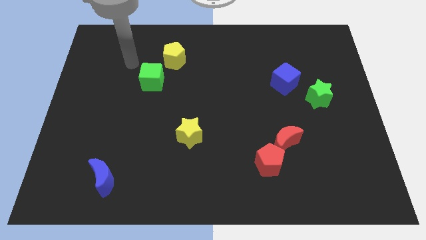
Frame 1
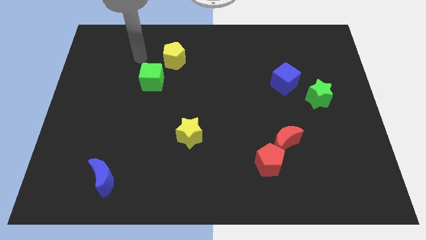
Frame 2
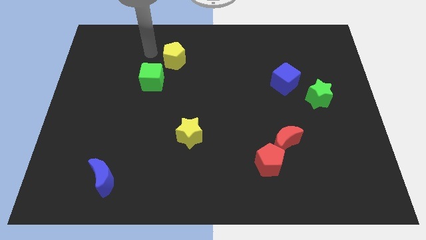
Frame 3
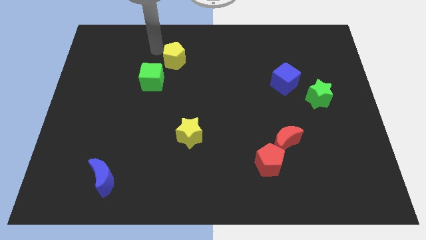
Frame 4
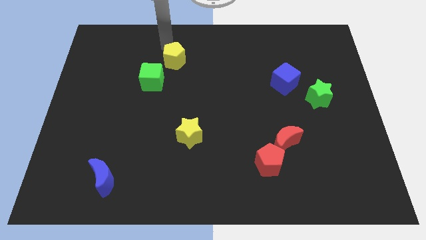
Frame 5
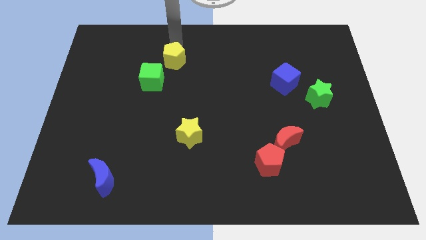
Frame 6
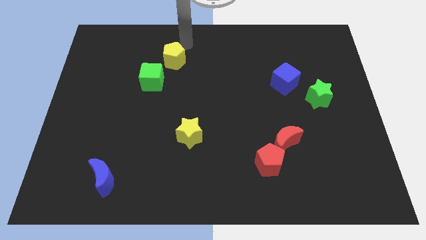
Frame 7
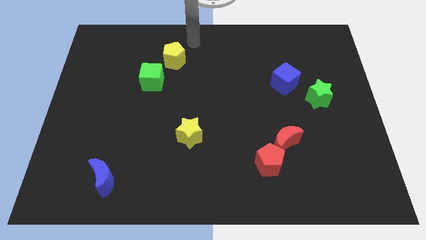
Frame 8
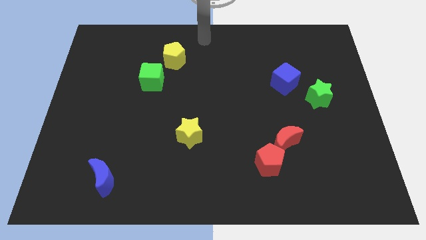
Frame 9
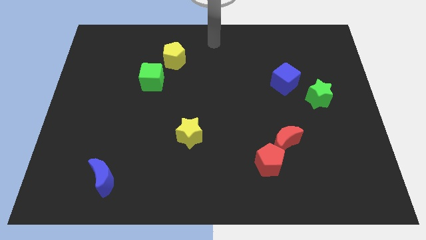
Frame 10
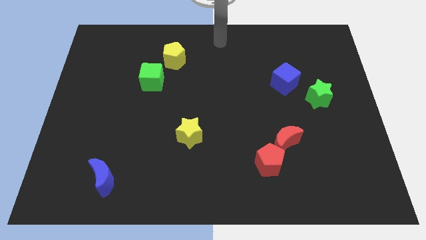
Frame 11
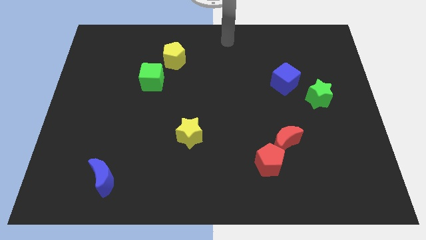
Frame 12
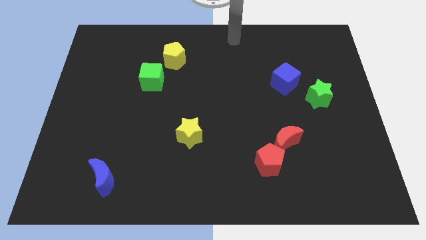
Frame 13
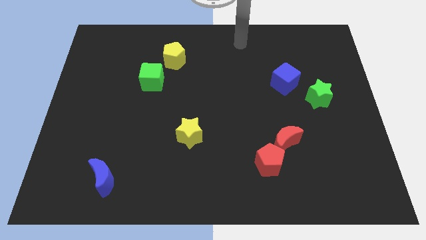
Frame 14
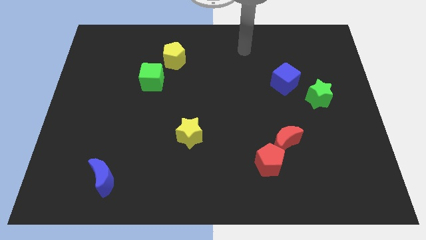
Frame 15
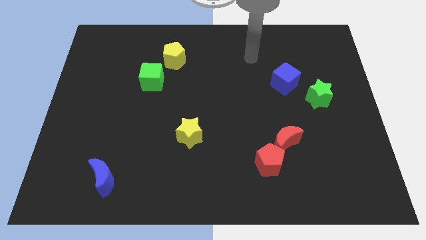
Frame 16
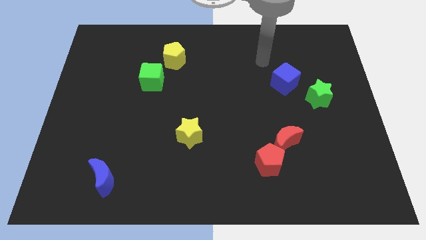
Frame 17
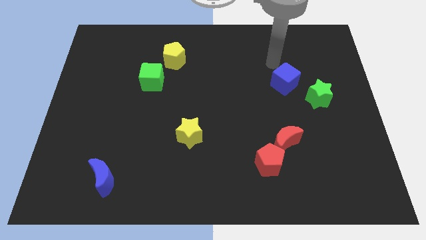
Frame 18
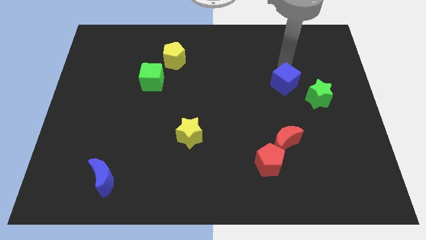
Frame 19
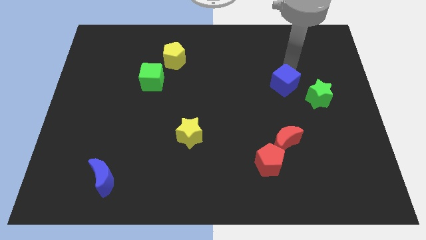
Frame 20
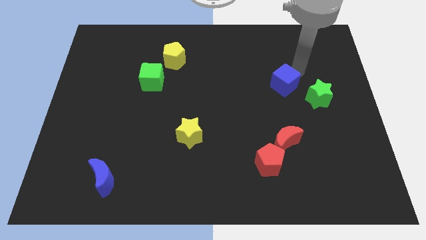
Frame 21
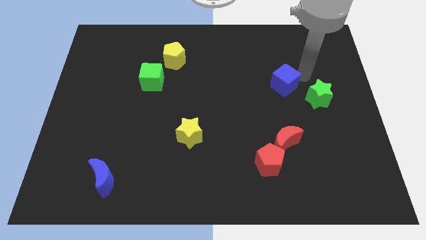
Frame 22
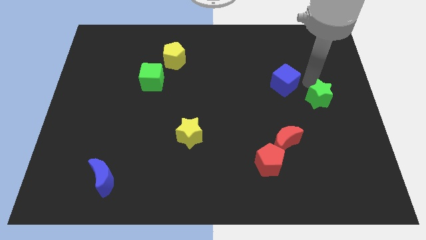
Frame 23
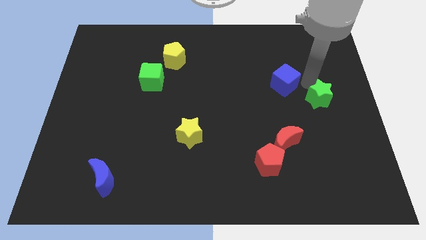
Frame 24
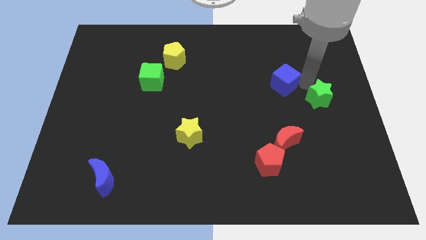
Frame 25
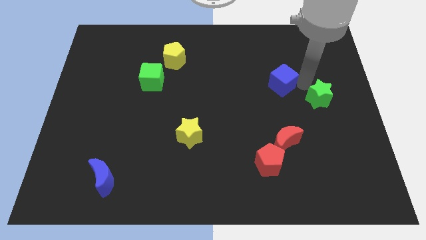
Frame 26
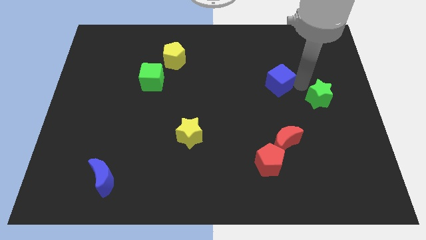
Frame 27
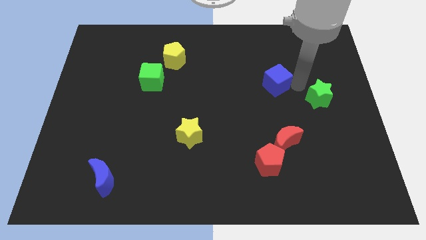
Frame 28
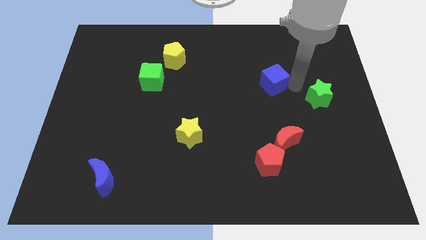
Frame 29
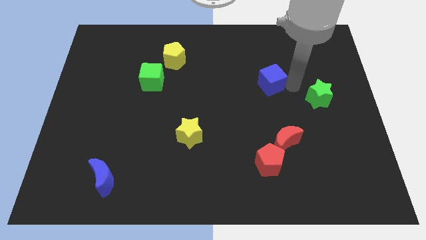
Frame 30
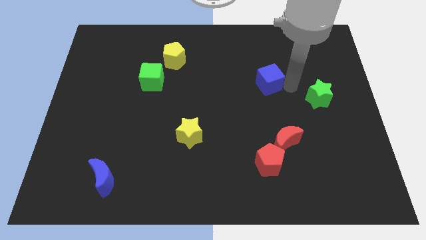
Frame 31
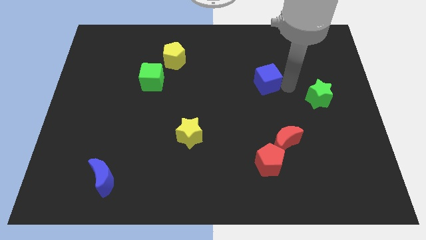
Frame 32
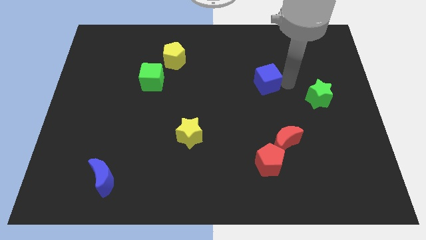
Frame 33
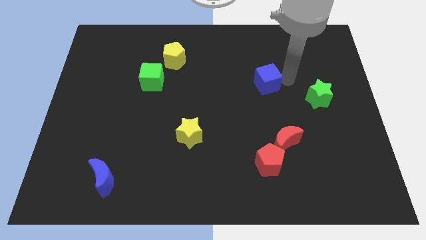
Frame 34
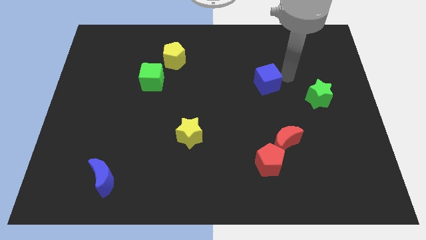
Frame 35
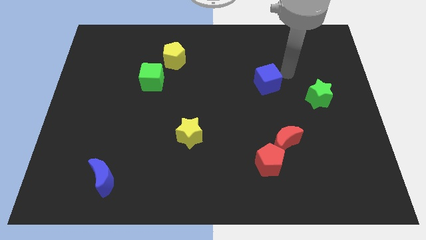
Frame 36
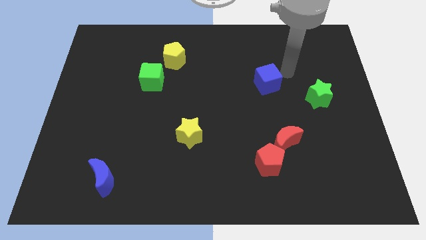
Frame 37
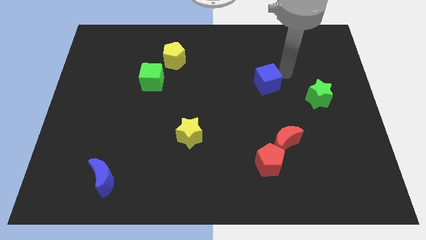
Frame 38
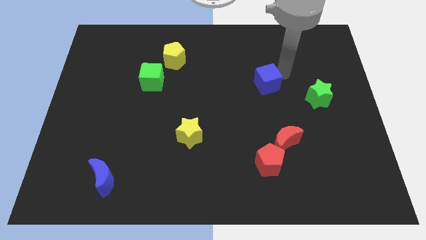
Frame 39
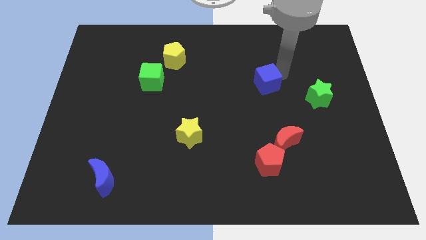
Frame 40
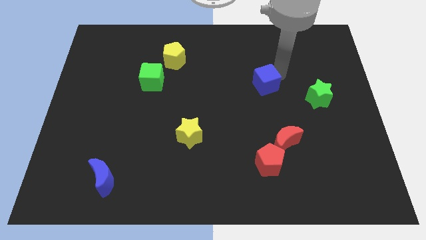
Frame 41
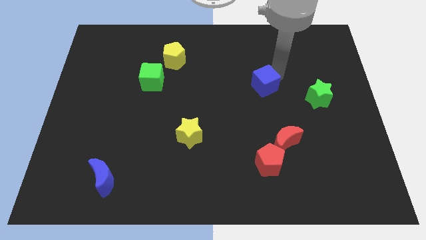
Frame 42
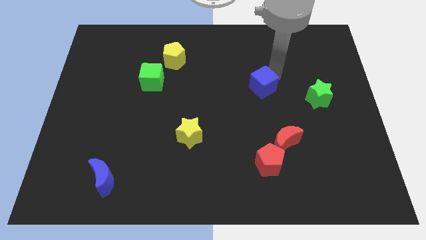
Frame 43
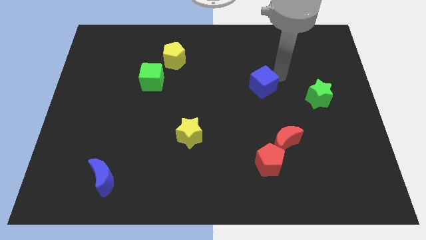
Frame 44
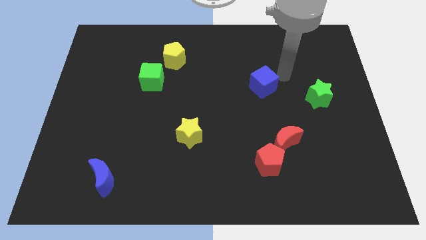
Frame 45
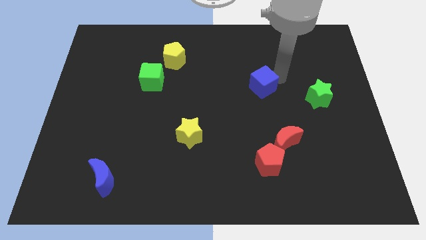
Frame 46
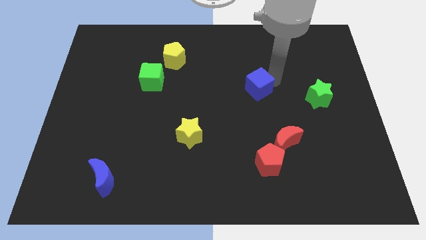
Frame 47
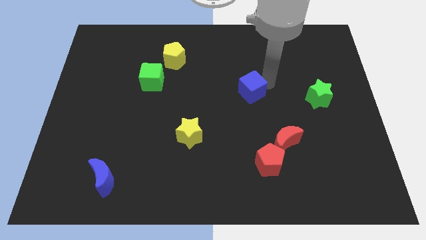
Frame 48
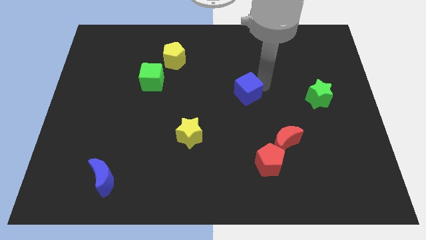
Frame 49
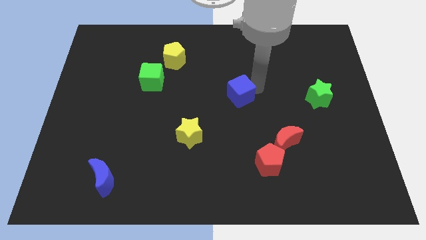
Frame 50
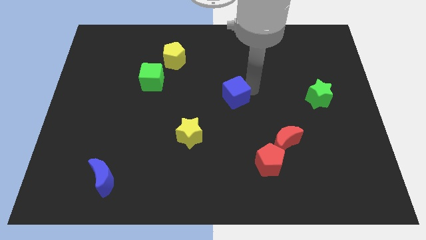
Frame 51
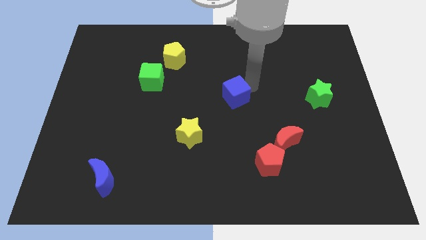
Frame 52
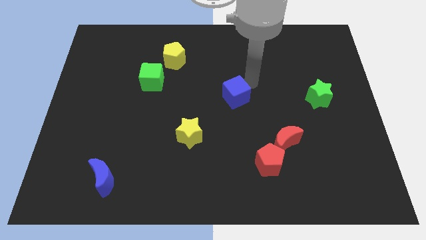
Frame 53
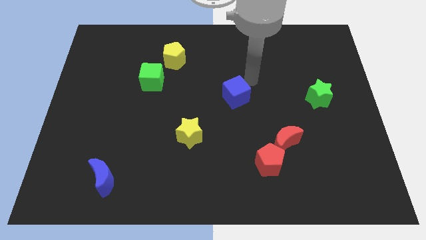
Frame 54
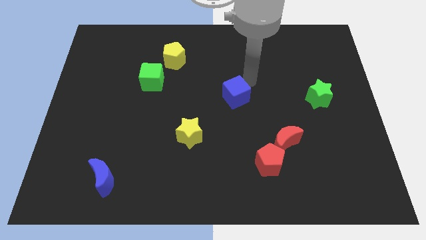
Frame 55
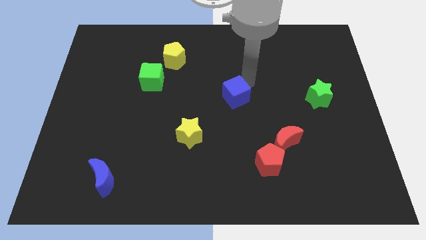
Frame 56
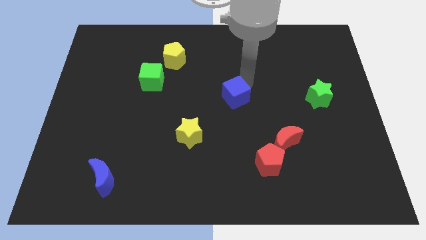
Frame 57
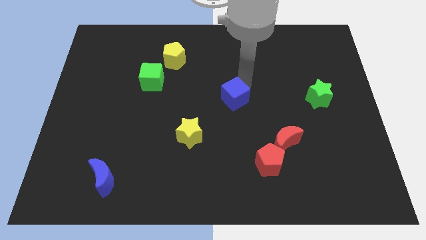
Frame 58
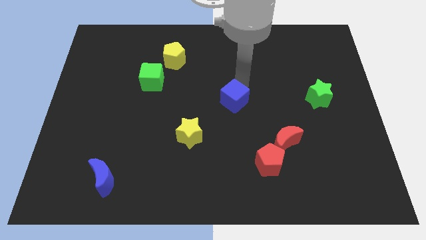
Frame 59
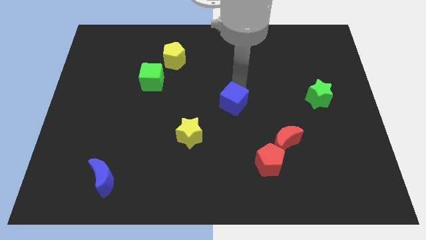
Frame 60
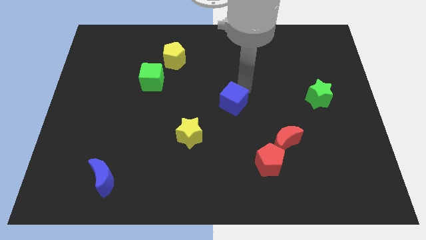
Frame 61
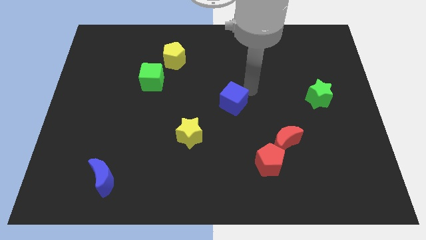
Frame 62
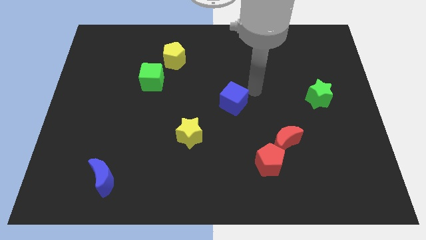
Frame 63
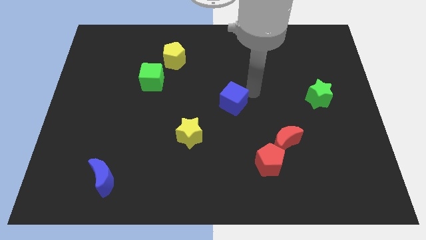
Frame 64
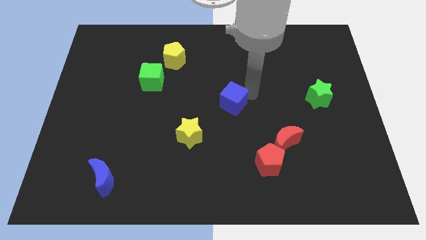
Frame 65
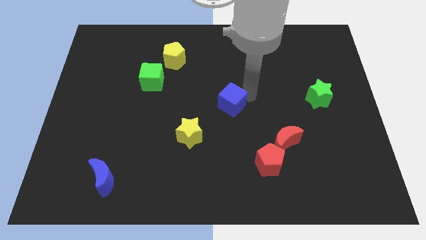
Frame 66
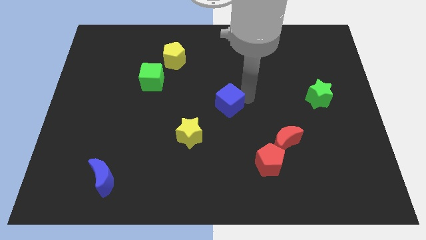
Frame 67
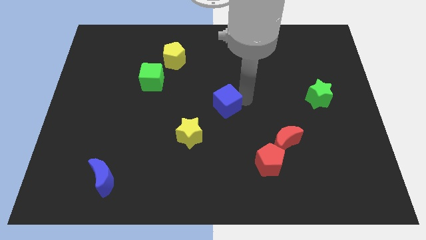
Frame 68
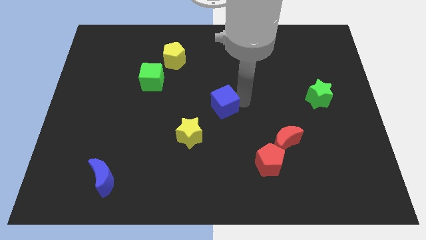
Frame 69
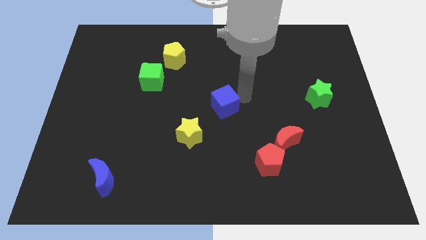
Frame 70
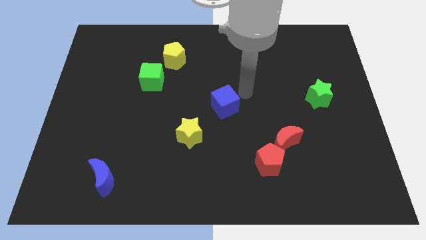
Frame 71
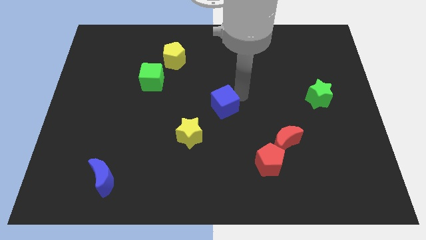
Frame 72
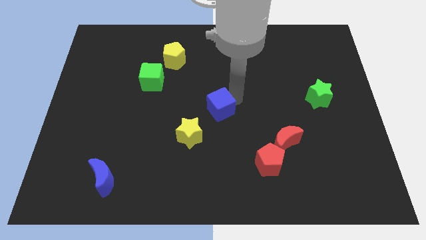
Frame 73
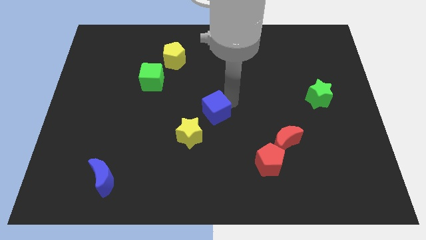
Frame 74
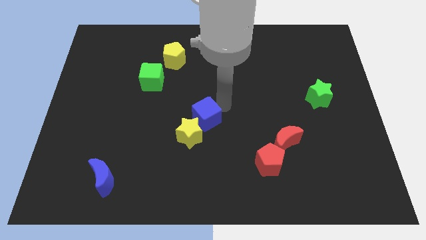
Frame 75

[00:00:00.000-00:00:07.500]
slide the blue cube to the yellow star
